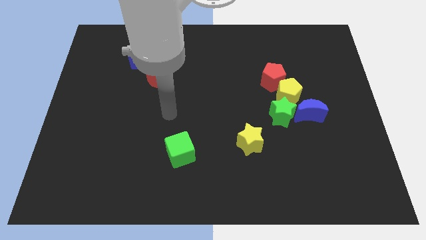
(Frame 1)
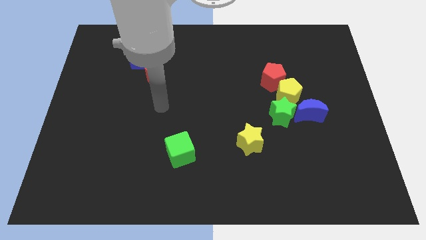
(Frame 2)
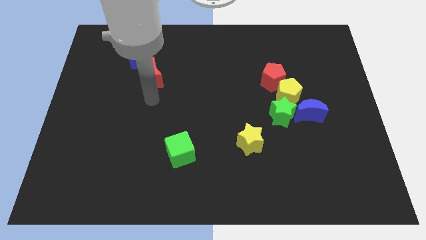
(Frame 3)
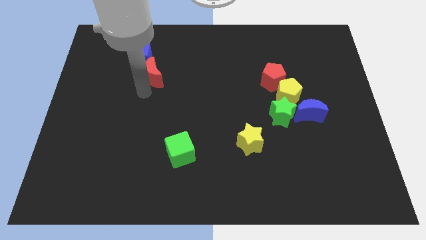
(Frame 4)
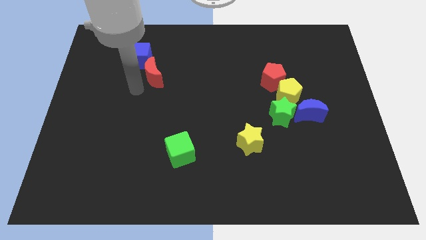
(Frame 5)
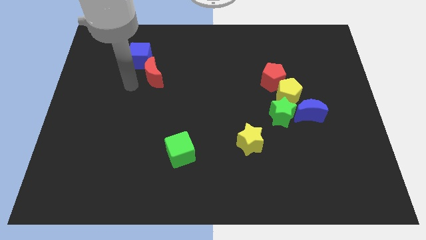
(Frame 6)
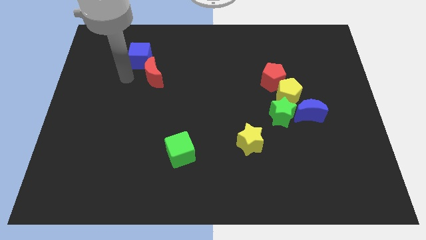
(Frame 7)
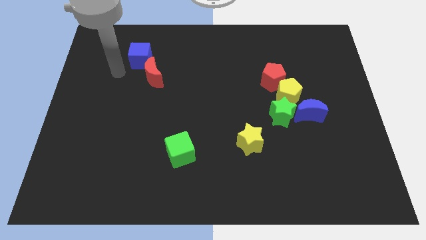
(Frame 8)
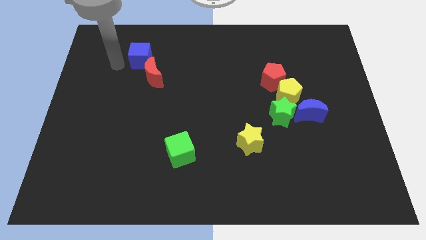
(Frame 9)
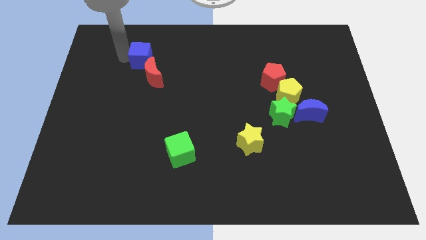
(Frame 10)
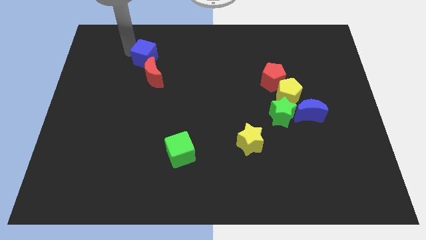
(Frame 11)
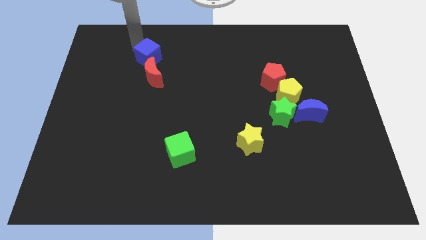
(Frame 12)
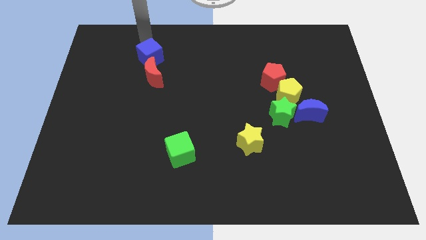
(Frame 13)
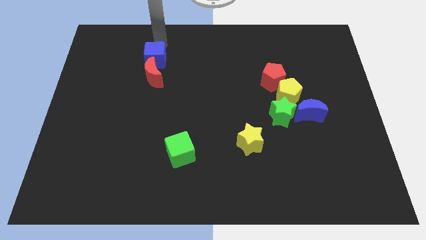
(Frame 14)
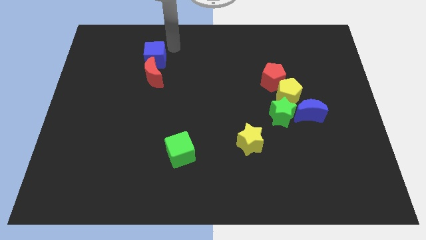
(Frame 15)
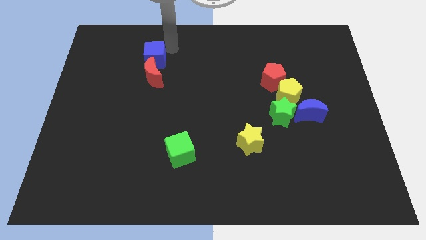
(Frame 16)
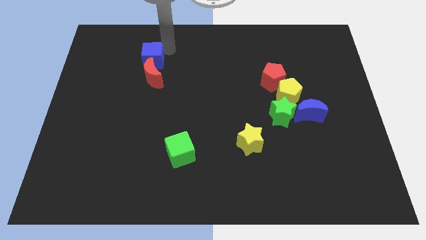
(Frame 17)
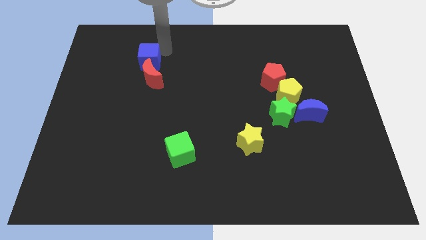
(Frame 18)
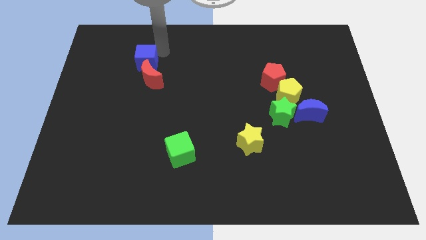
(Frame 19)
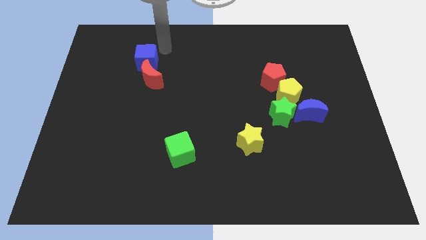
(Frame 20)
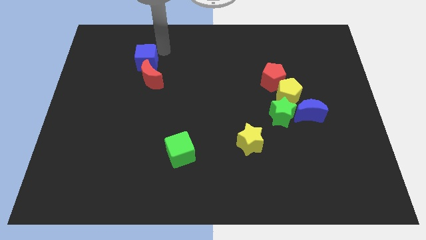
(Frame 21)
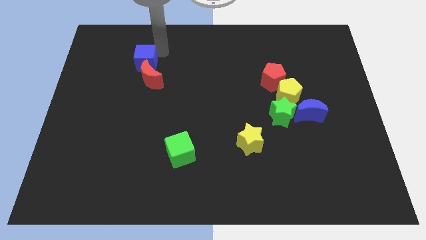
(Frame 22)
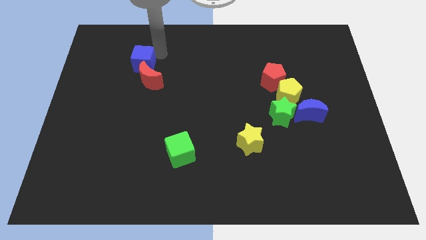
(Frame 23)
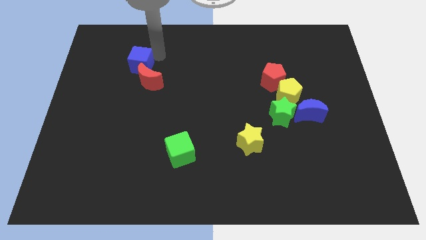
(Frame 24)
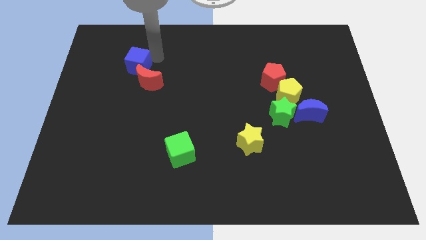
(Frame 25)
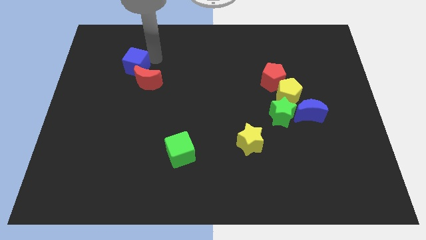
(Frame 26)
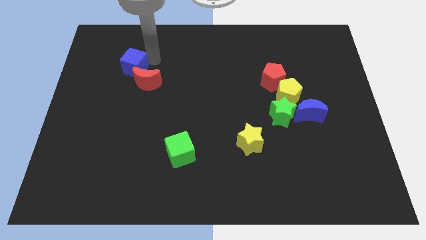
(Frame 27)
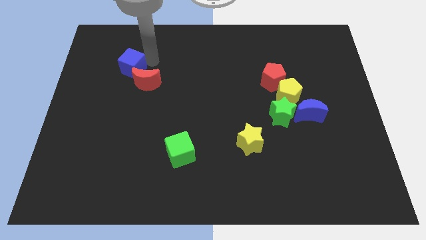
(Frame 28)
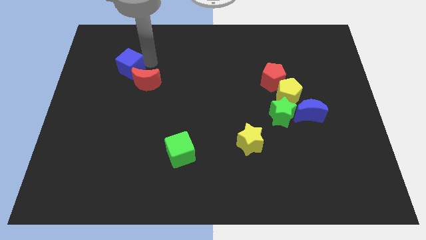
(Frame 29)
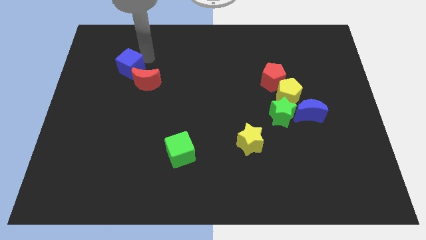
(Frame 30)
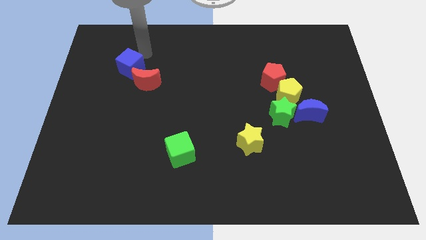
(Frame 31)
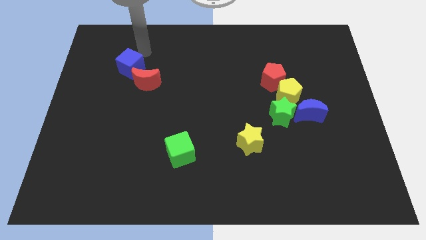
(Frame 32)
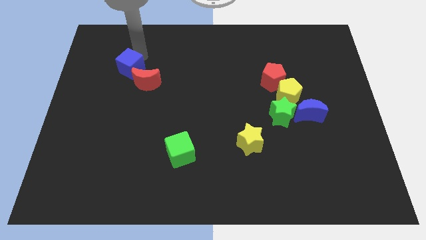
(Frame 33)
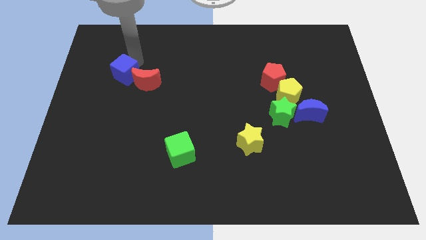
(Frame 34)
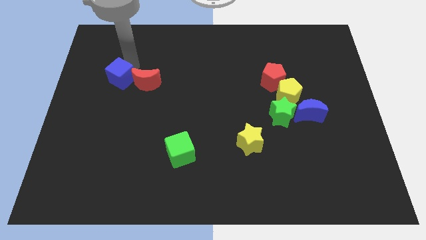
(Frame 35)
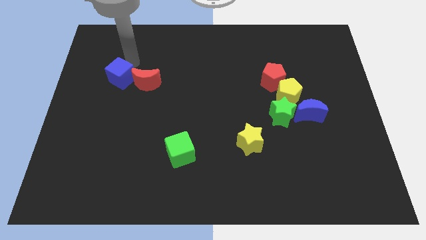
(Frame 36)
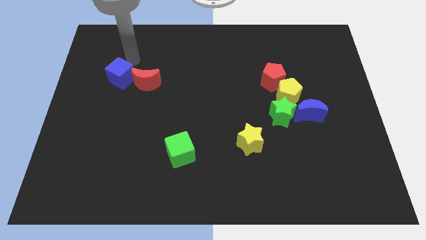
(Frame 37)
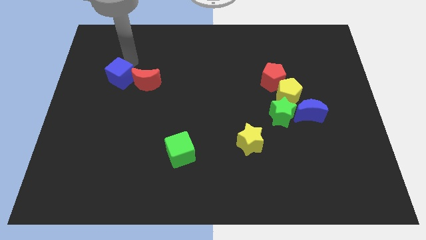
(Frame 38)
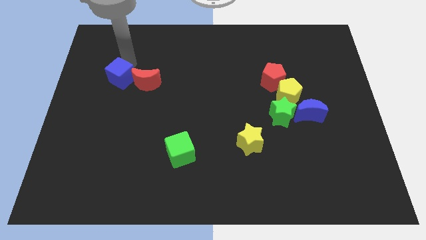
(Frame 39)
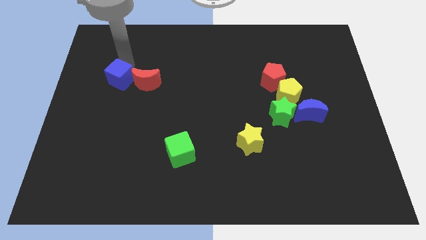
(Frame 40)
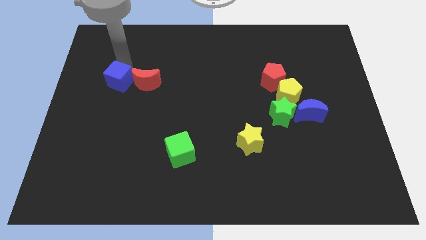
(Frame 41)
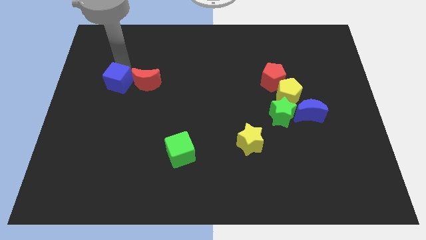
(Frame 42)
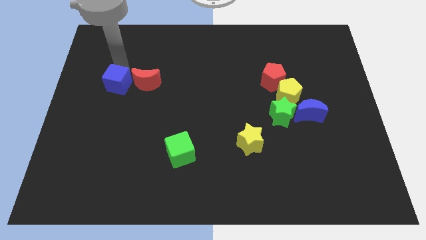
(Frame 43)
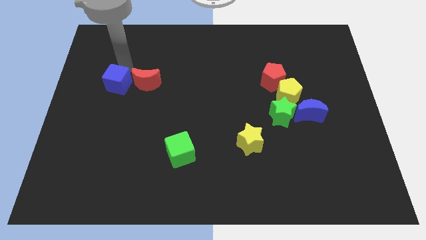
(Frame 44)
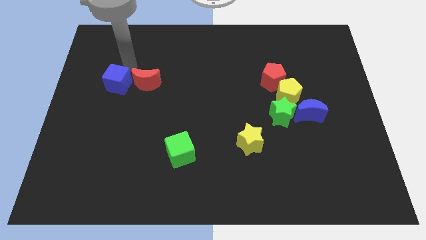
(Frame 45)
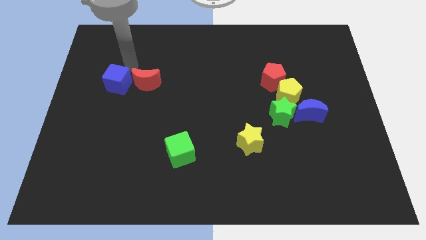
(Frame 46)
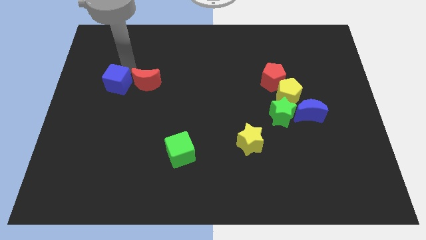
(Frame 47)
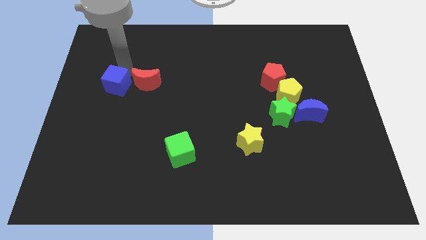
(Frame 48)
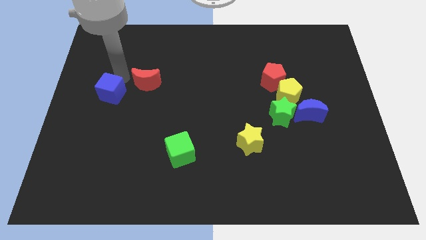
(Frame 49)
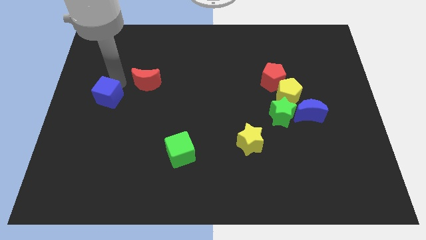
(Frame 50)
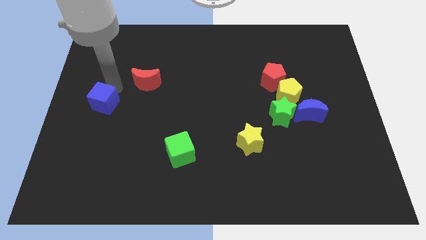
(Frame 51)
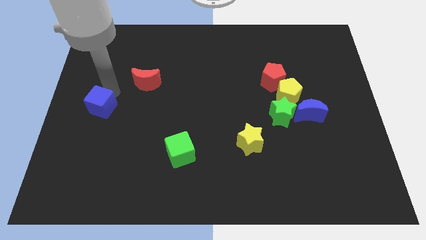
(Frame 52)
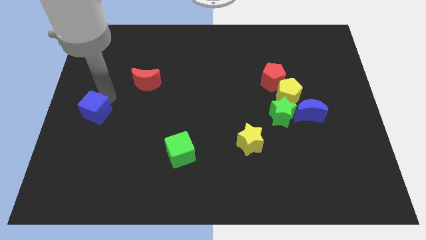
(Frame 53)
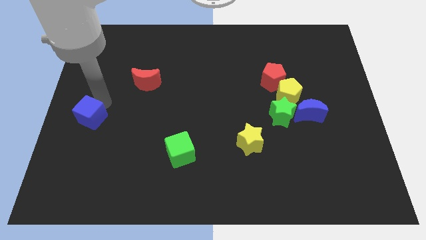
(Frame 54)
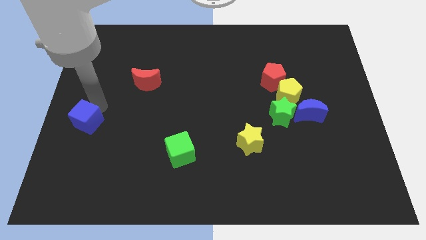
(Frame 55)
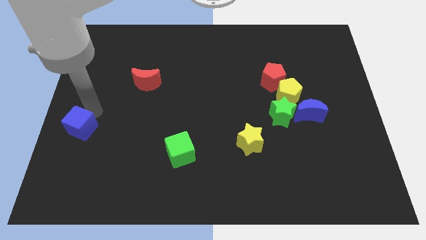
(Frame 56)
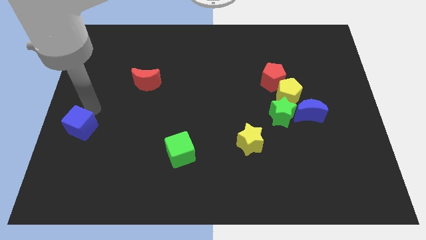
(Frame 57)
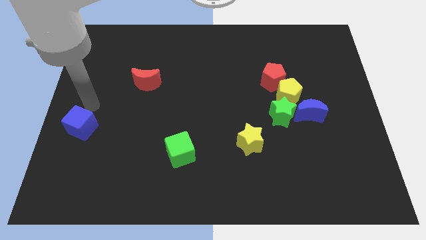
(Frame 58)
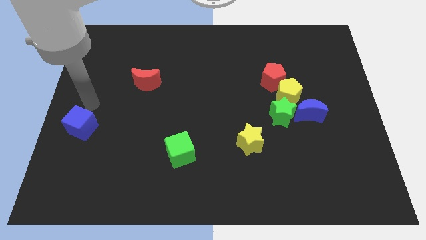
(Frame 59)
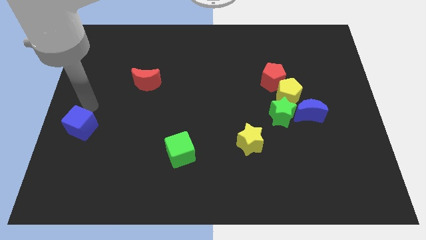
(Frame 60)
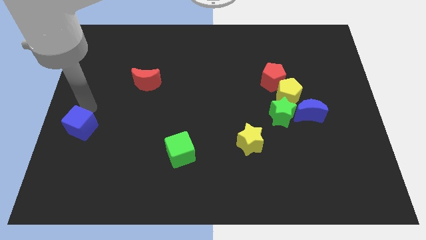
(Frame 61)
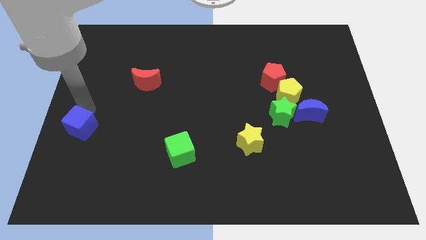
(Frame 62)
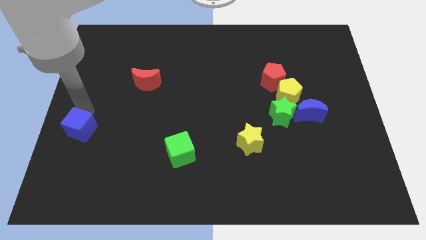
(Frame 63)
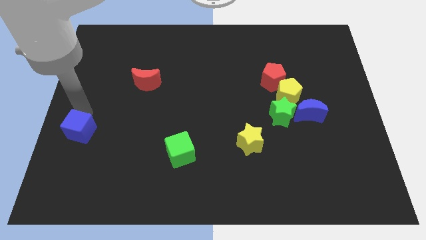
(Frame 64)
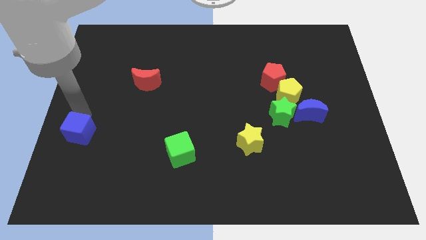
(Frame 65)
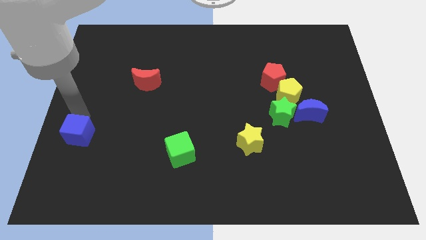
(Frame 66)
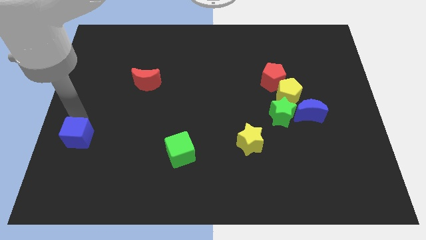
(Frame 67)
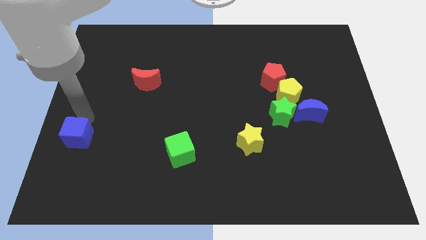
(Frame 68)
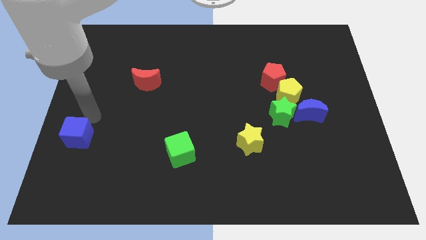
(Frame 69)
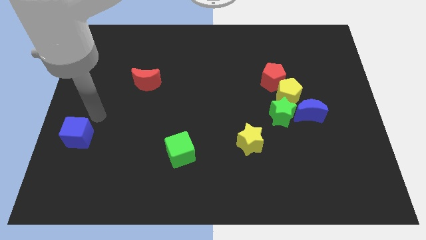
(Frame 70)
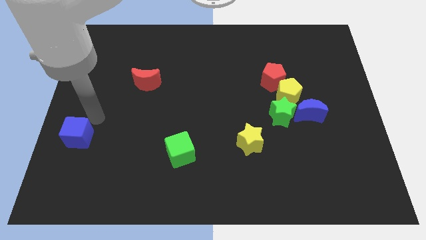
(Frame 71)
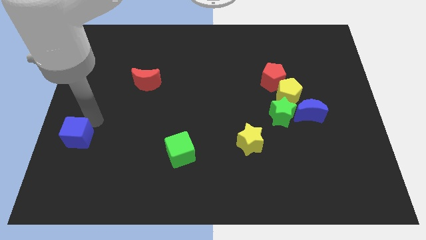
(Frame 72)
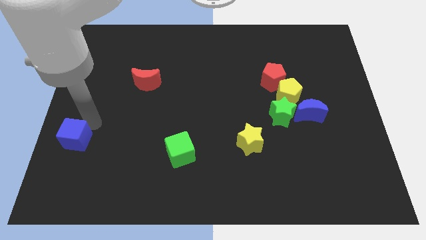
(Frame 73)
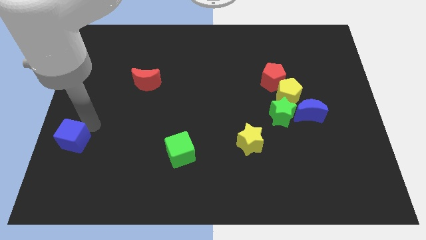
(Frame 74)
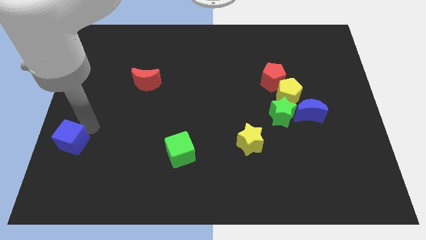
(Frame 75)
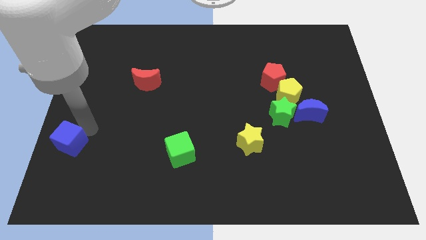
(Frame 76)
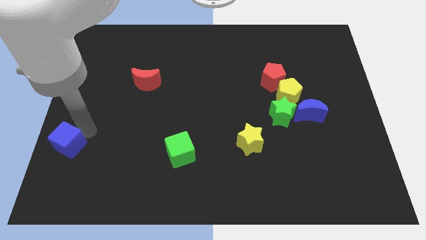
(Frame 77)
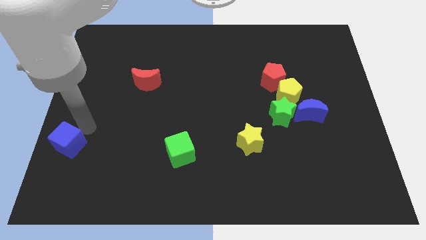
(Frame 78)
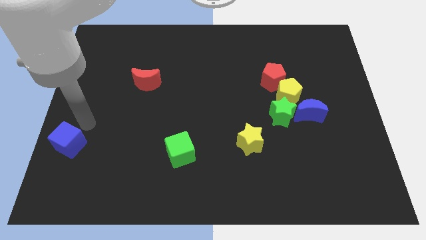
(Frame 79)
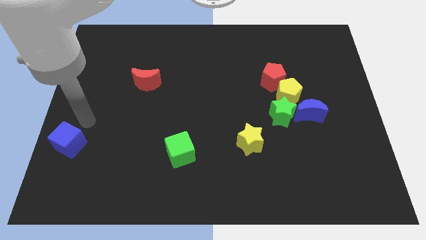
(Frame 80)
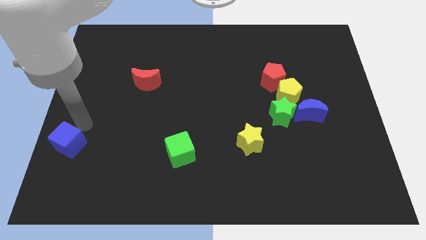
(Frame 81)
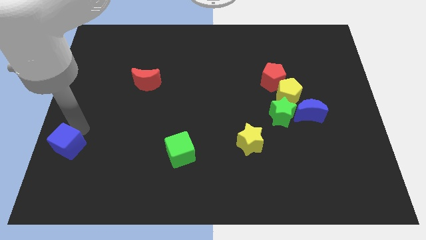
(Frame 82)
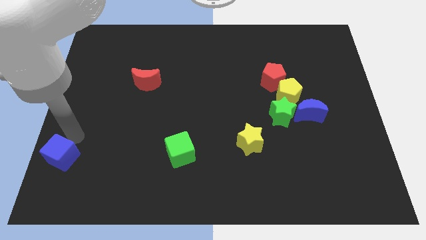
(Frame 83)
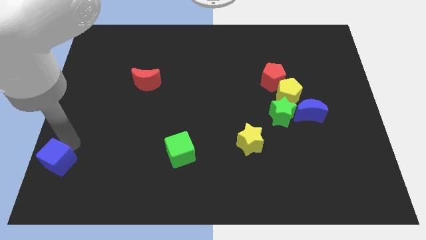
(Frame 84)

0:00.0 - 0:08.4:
slide the blue cube to the lower left corner
